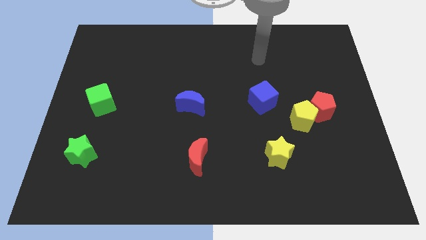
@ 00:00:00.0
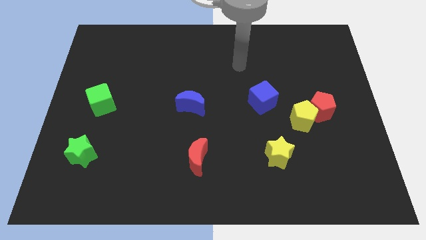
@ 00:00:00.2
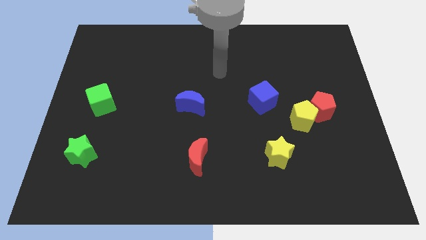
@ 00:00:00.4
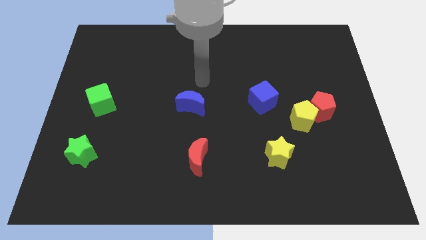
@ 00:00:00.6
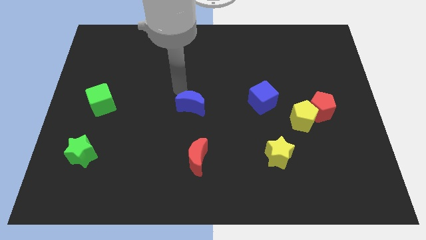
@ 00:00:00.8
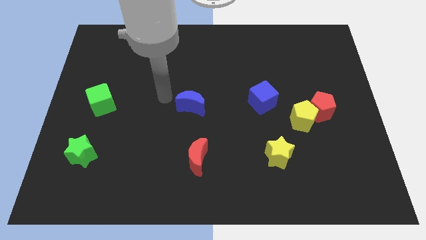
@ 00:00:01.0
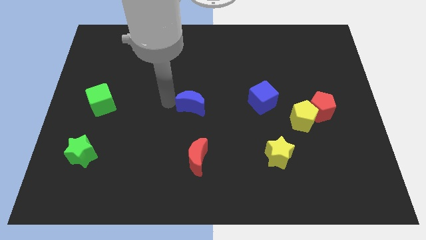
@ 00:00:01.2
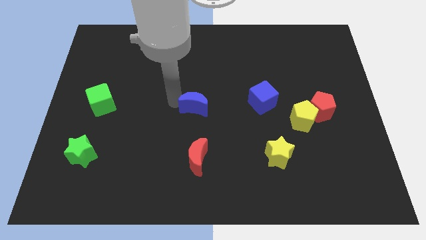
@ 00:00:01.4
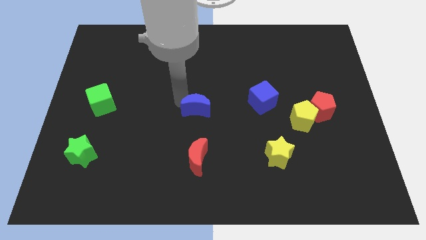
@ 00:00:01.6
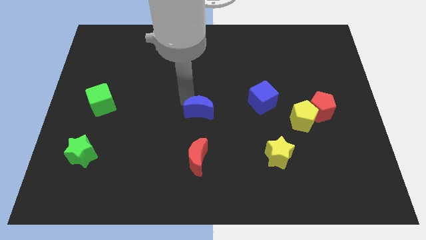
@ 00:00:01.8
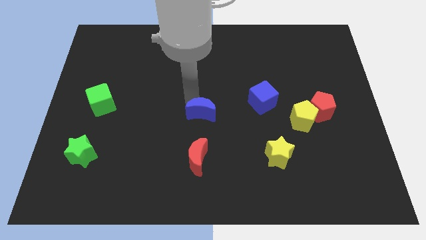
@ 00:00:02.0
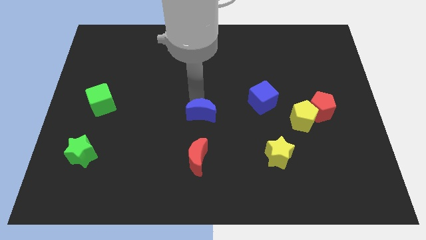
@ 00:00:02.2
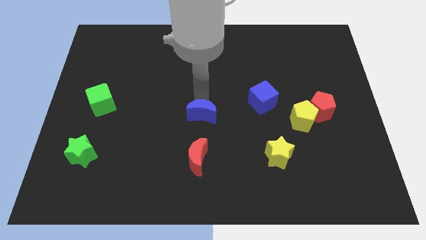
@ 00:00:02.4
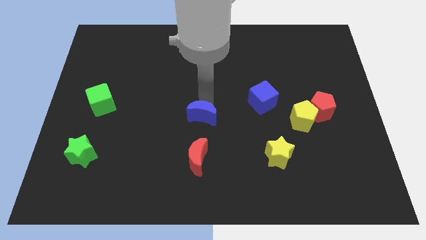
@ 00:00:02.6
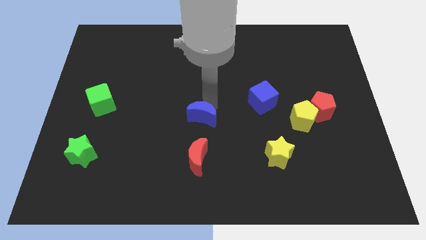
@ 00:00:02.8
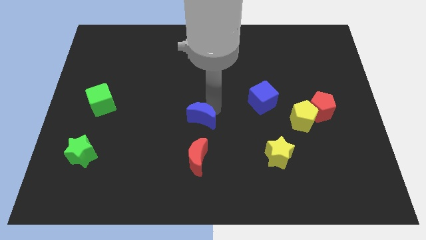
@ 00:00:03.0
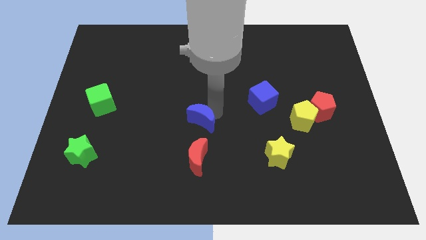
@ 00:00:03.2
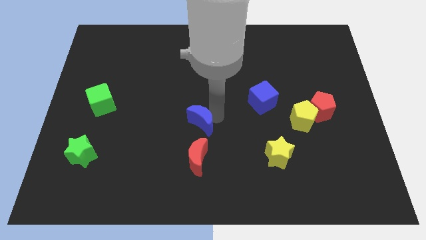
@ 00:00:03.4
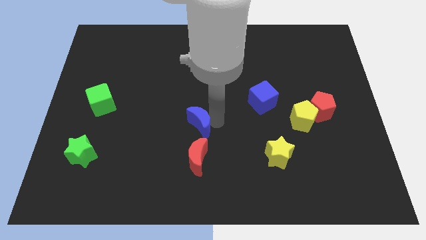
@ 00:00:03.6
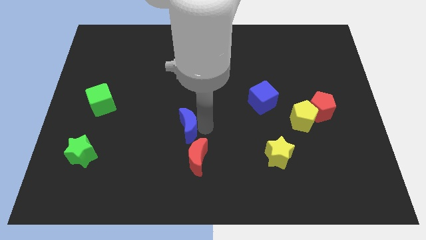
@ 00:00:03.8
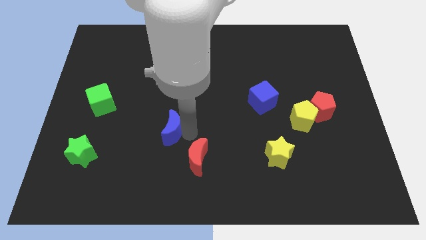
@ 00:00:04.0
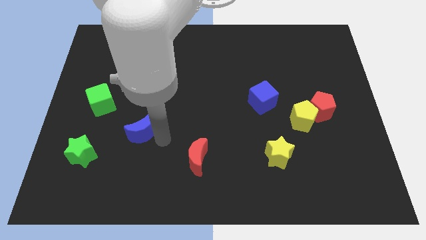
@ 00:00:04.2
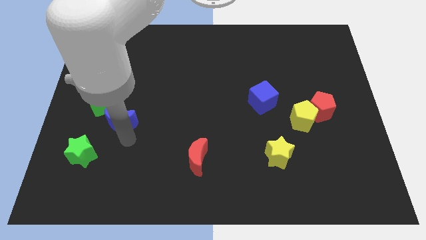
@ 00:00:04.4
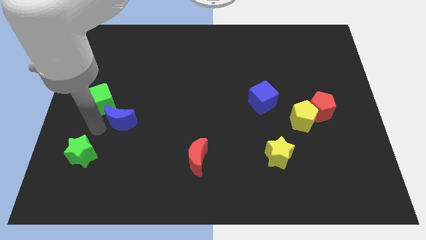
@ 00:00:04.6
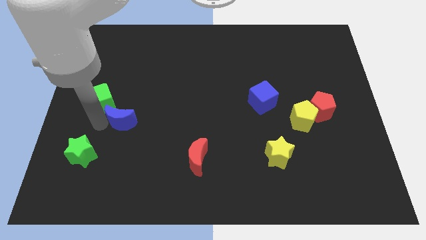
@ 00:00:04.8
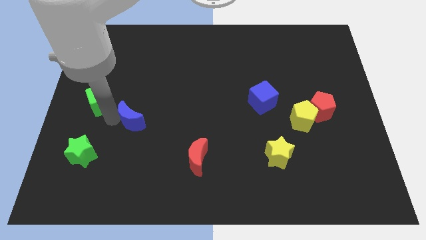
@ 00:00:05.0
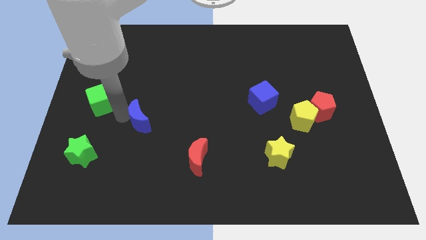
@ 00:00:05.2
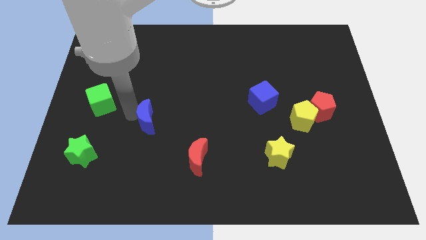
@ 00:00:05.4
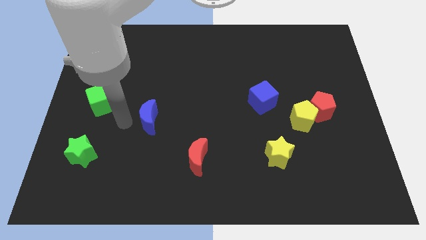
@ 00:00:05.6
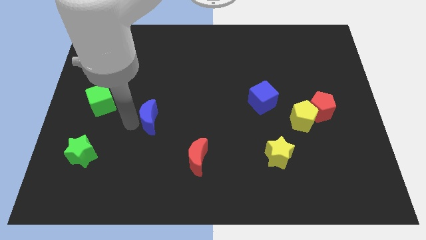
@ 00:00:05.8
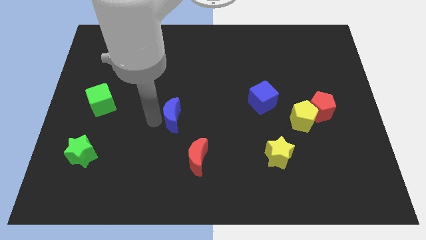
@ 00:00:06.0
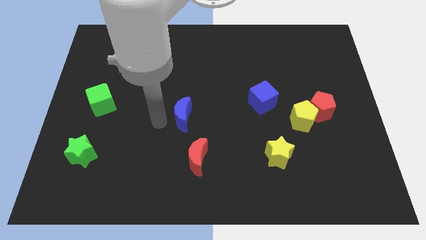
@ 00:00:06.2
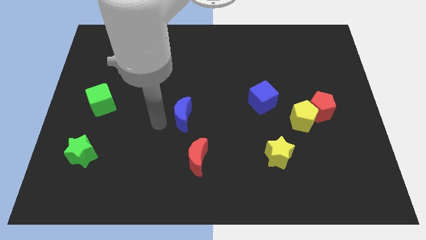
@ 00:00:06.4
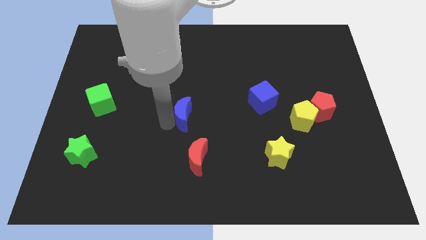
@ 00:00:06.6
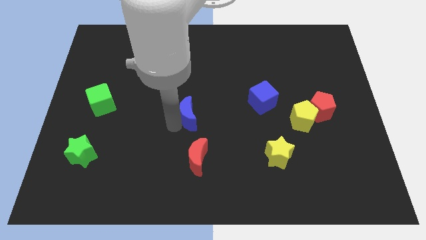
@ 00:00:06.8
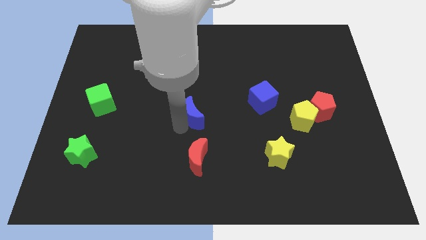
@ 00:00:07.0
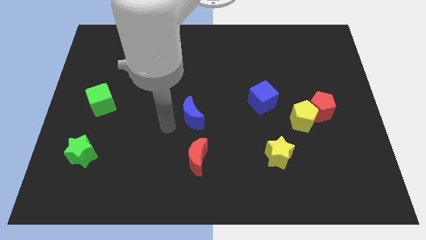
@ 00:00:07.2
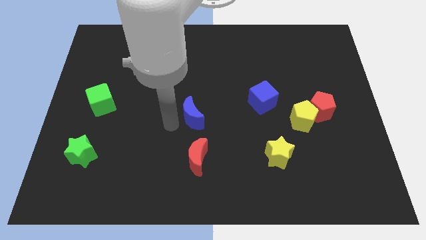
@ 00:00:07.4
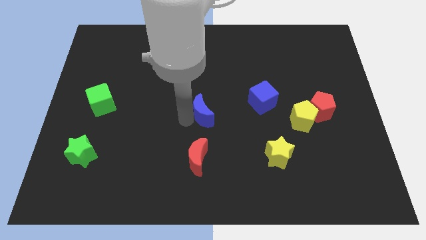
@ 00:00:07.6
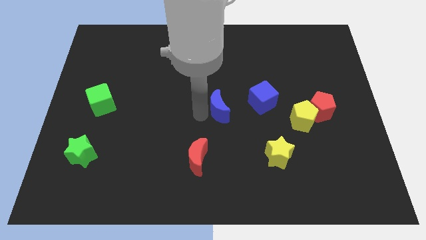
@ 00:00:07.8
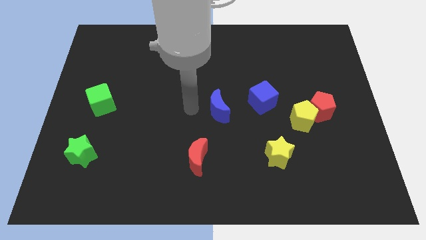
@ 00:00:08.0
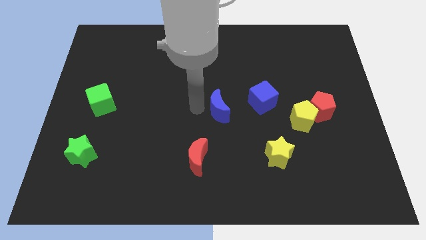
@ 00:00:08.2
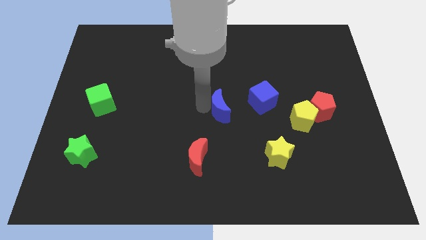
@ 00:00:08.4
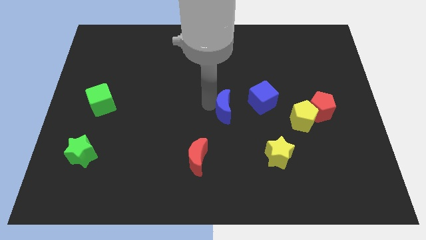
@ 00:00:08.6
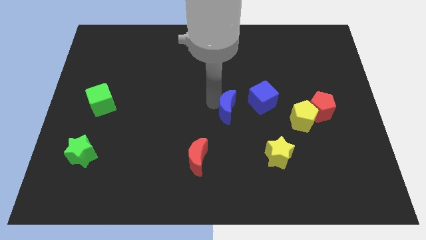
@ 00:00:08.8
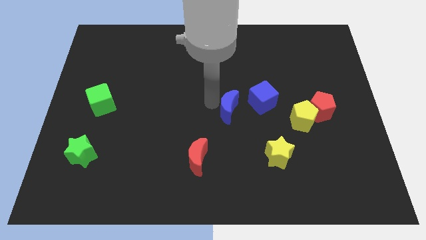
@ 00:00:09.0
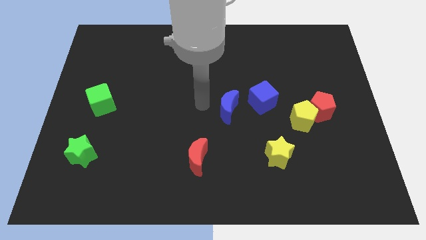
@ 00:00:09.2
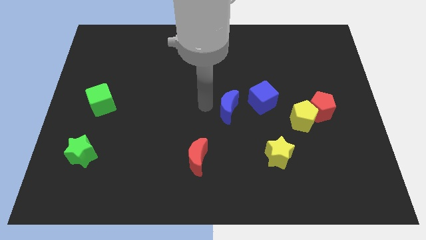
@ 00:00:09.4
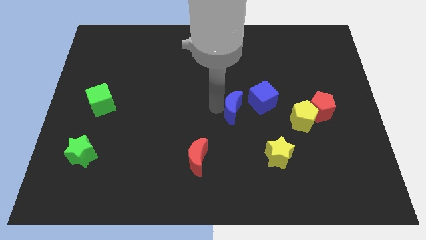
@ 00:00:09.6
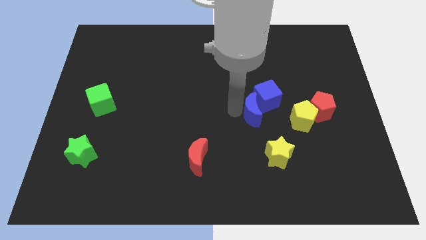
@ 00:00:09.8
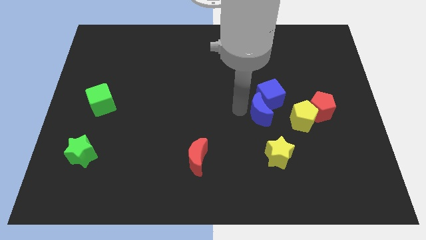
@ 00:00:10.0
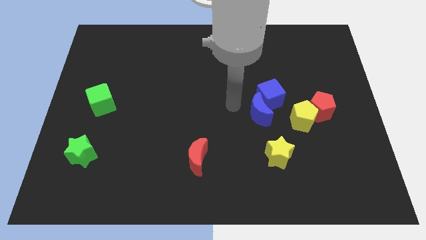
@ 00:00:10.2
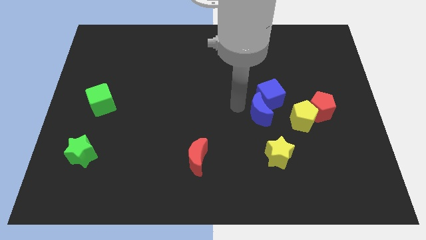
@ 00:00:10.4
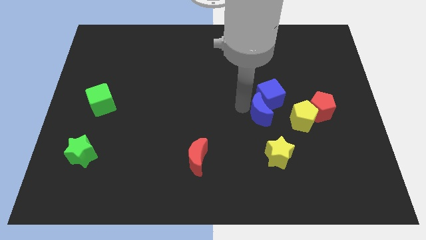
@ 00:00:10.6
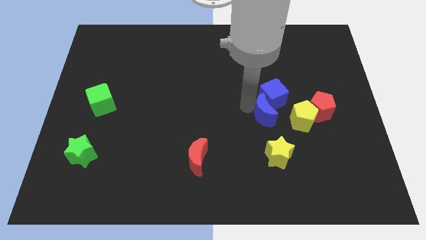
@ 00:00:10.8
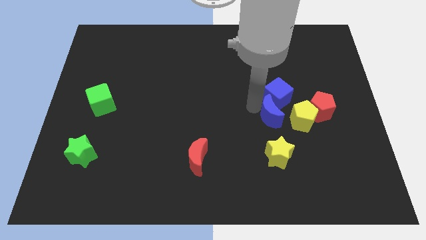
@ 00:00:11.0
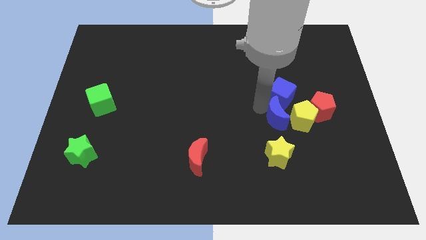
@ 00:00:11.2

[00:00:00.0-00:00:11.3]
put the blue moon towards the yellow pentagon

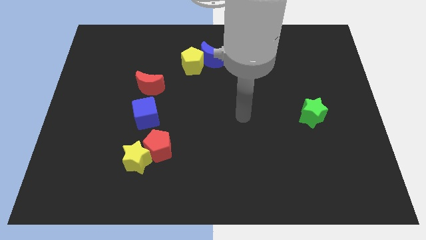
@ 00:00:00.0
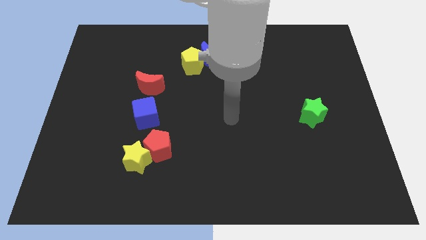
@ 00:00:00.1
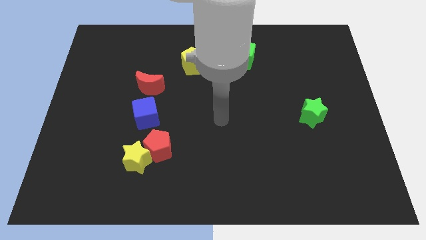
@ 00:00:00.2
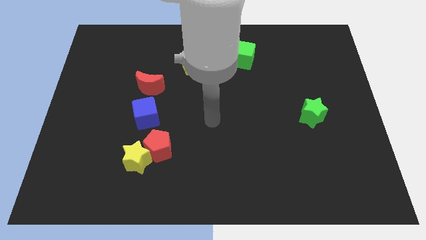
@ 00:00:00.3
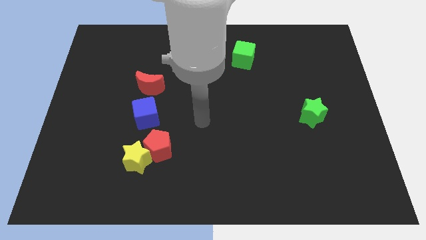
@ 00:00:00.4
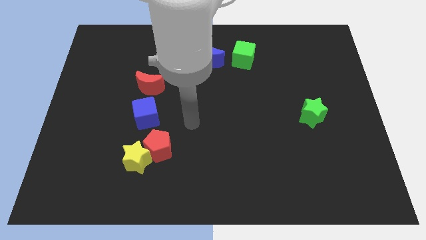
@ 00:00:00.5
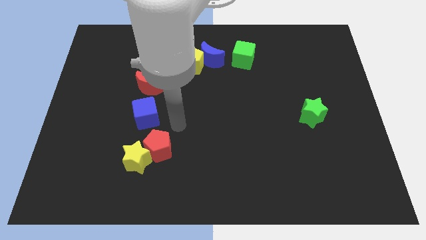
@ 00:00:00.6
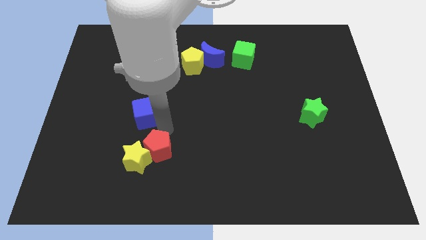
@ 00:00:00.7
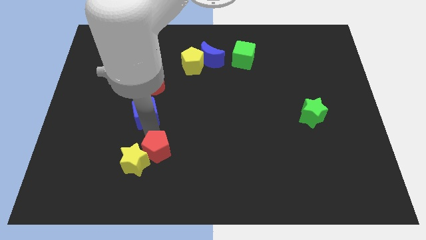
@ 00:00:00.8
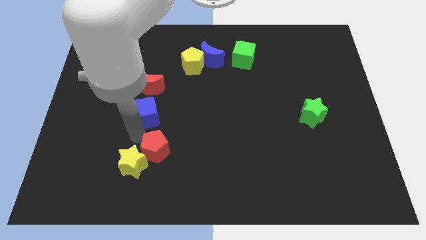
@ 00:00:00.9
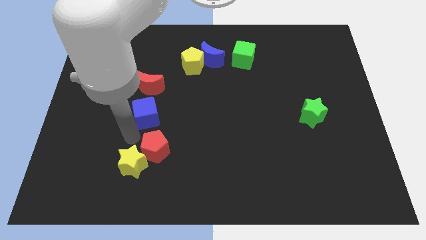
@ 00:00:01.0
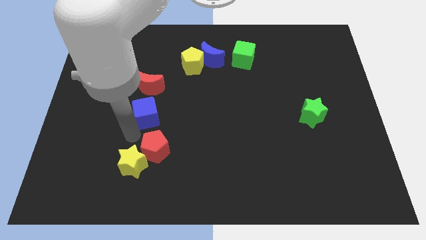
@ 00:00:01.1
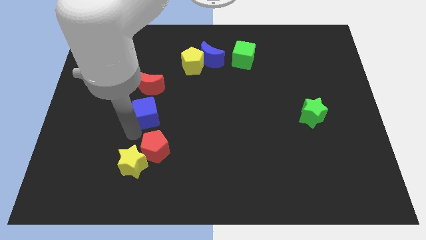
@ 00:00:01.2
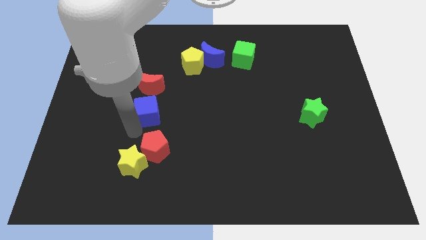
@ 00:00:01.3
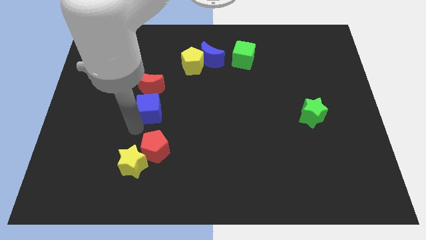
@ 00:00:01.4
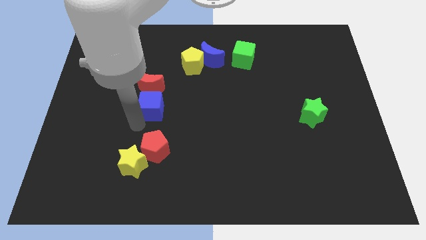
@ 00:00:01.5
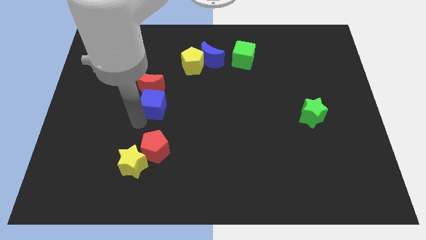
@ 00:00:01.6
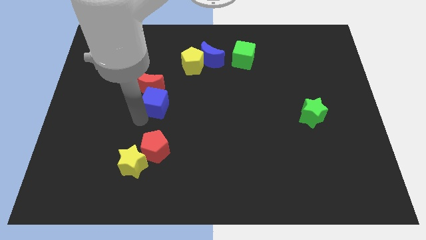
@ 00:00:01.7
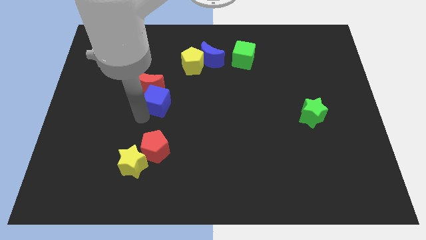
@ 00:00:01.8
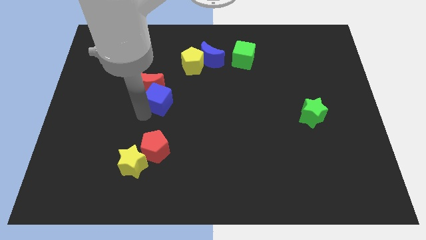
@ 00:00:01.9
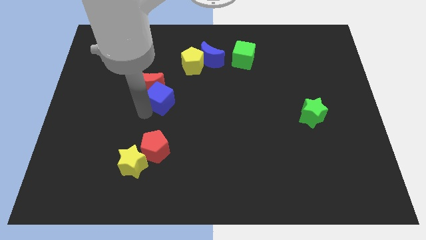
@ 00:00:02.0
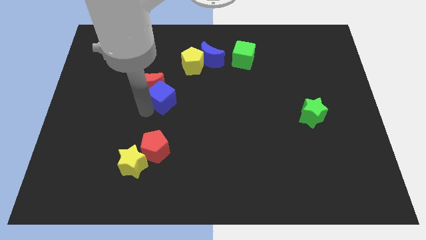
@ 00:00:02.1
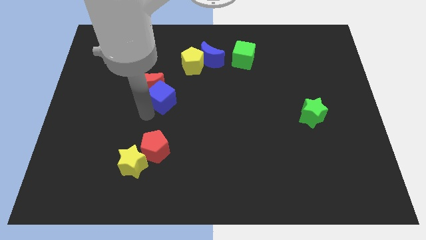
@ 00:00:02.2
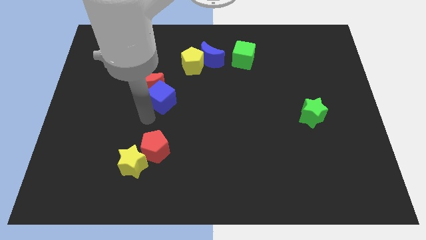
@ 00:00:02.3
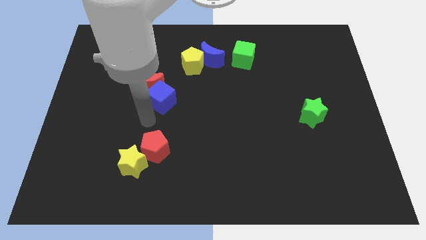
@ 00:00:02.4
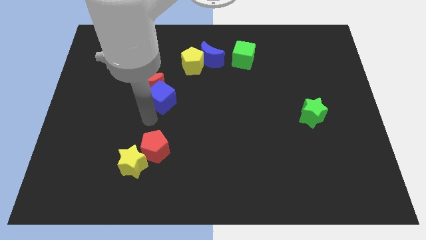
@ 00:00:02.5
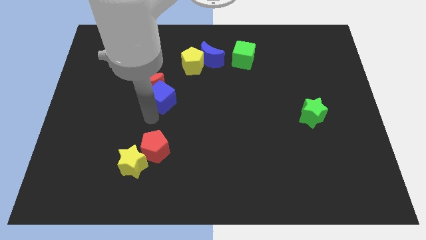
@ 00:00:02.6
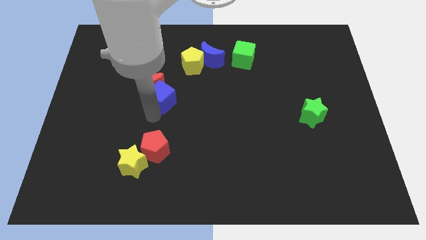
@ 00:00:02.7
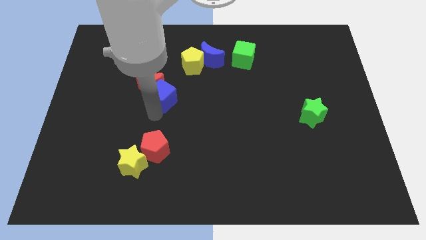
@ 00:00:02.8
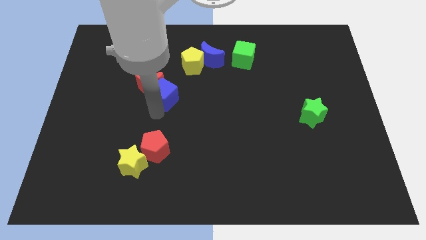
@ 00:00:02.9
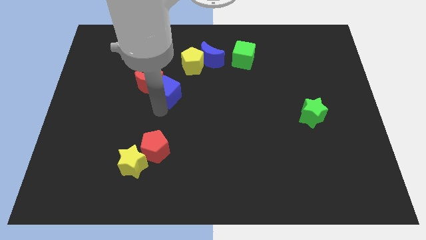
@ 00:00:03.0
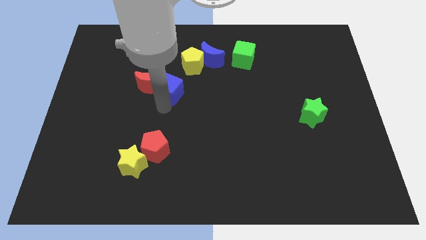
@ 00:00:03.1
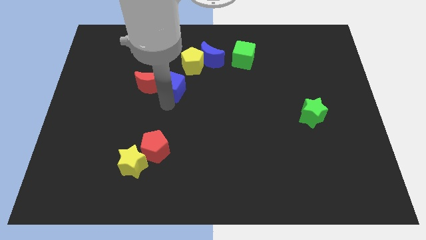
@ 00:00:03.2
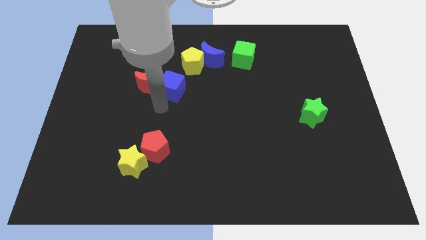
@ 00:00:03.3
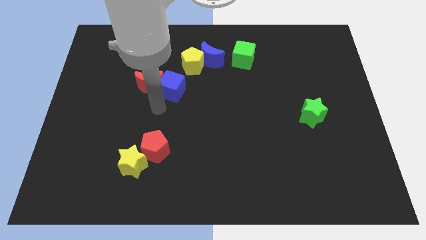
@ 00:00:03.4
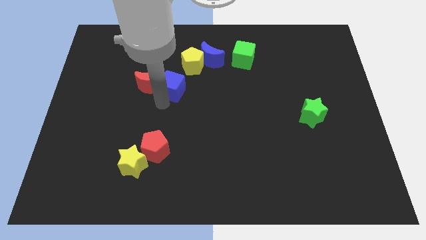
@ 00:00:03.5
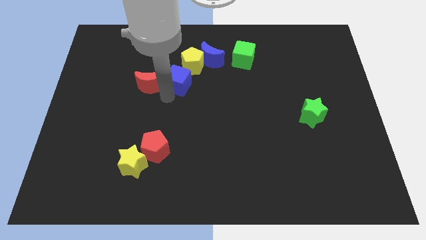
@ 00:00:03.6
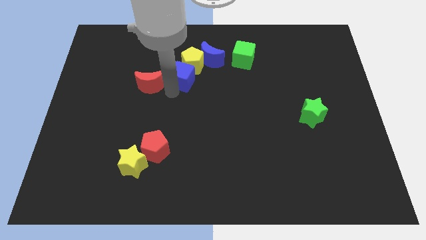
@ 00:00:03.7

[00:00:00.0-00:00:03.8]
slide the blue cube to the yellow pentagon
